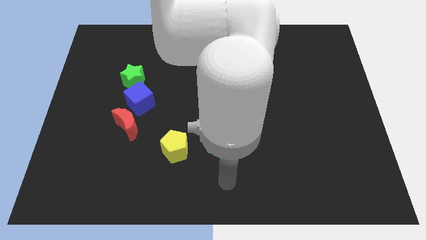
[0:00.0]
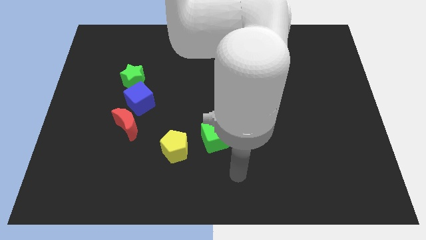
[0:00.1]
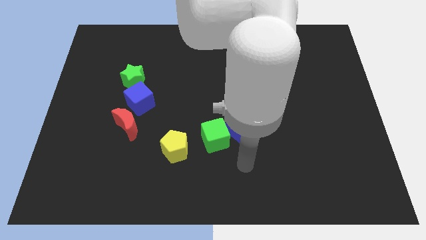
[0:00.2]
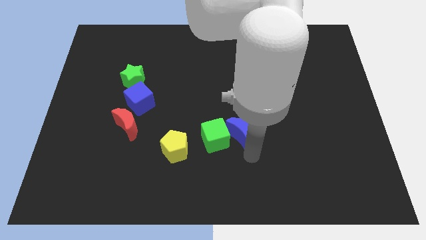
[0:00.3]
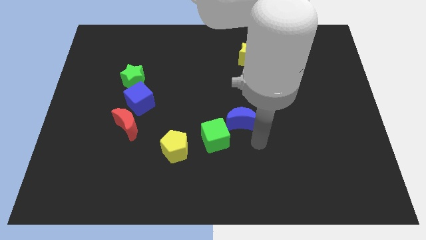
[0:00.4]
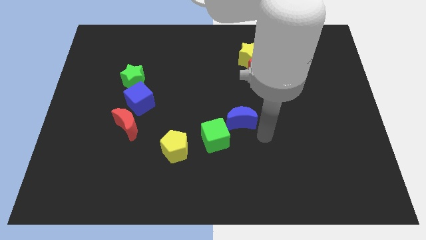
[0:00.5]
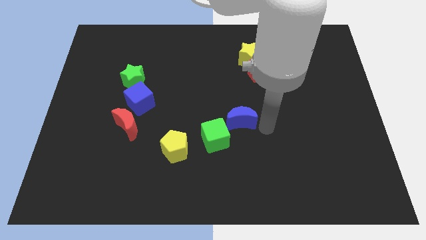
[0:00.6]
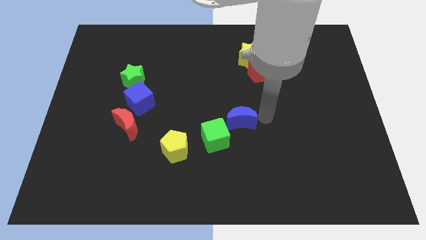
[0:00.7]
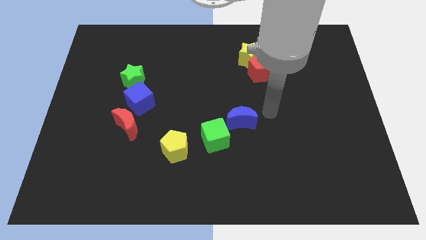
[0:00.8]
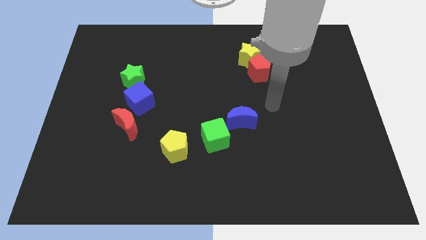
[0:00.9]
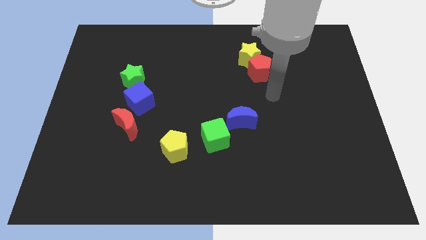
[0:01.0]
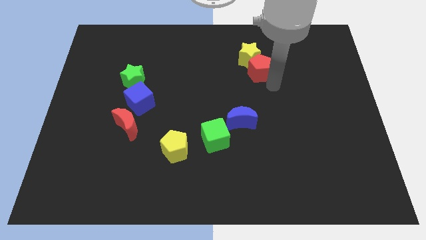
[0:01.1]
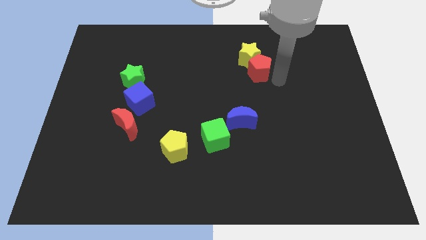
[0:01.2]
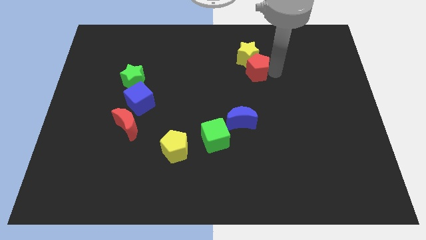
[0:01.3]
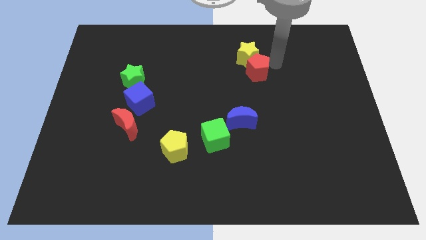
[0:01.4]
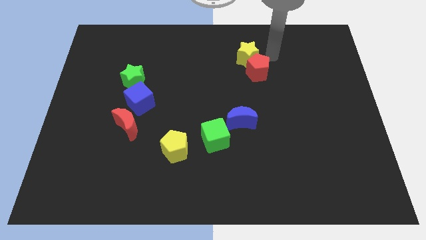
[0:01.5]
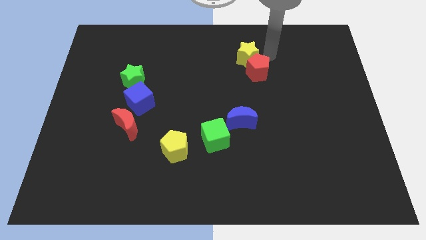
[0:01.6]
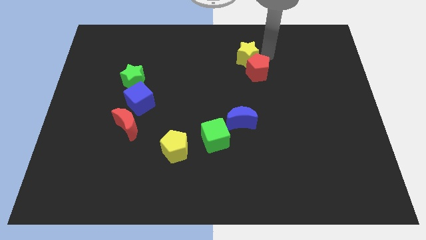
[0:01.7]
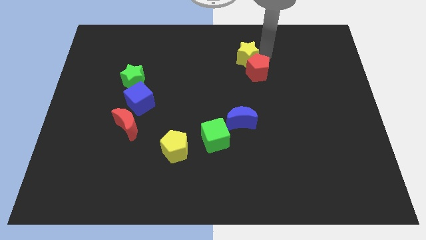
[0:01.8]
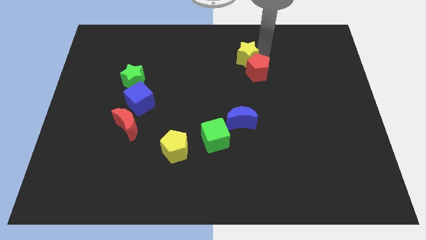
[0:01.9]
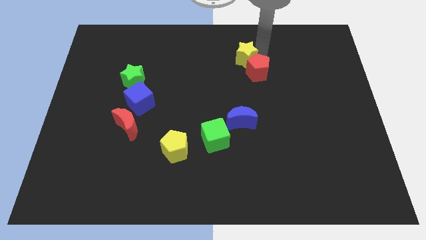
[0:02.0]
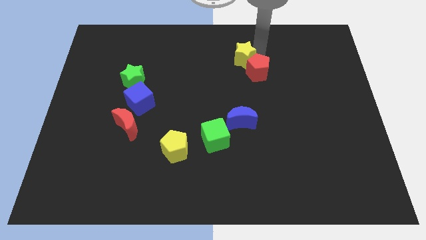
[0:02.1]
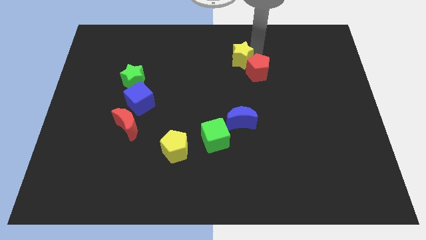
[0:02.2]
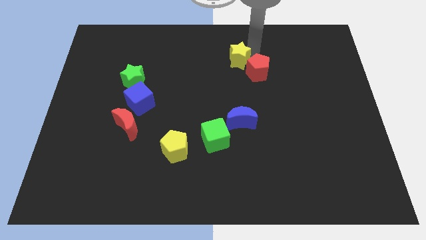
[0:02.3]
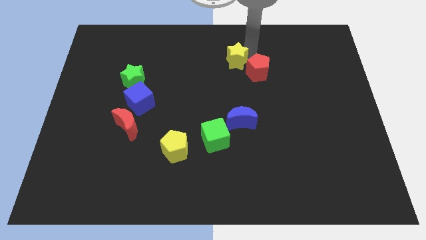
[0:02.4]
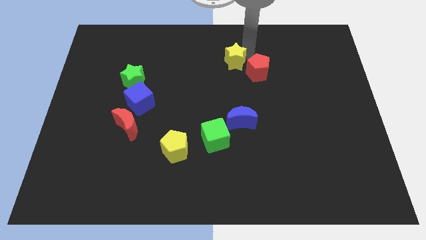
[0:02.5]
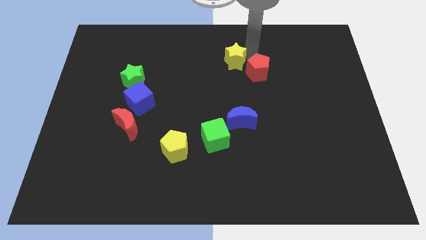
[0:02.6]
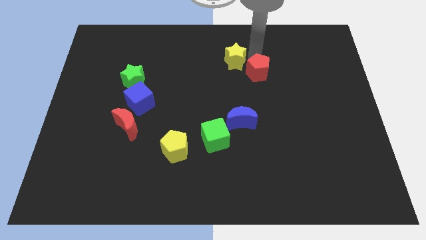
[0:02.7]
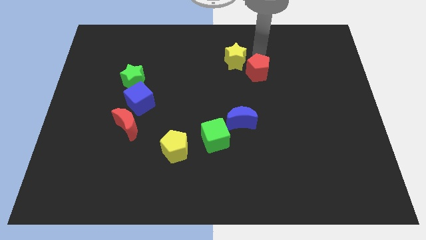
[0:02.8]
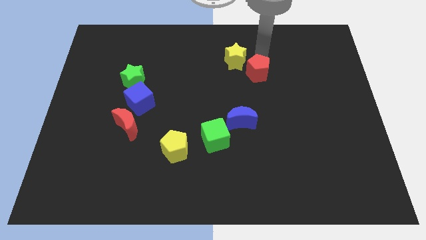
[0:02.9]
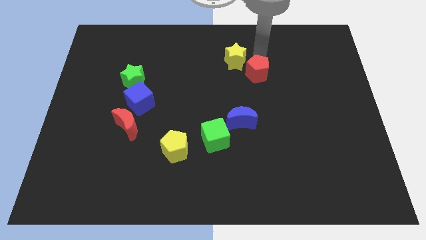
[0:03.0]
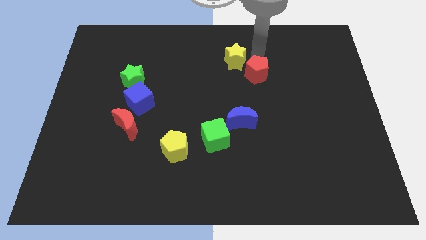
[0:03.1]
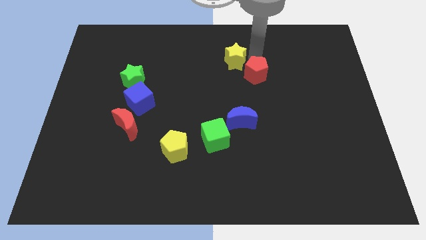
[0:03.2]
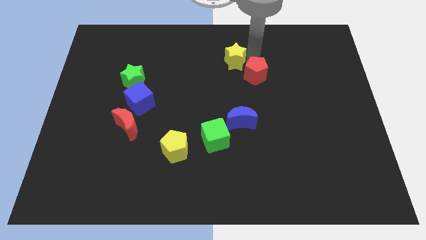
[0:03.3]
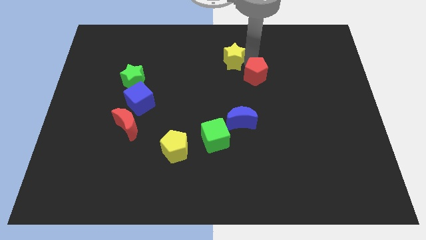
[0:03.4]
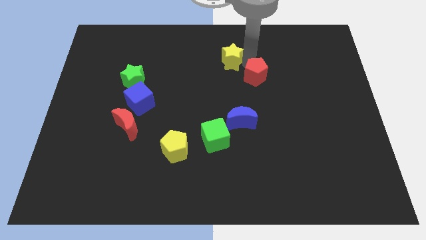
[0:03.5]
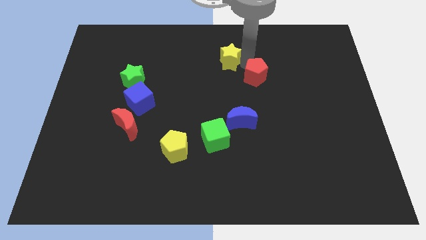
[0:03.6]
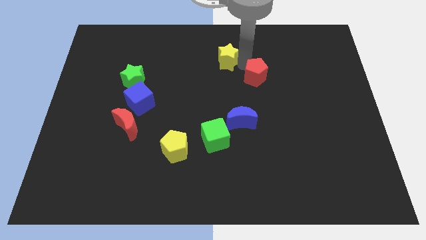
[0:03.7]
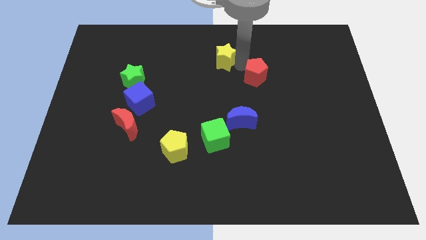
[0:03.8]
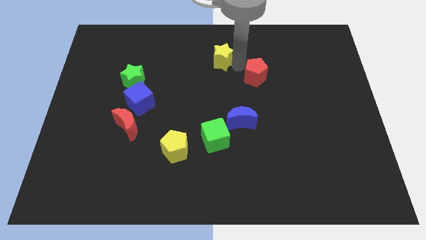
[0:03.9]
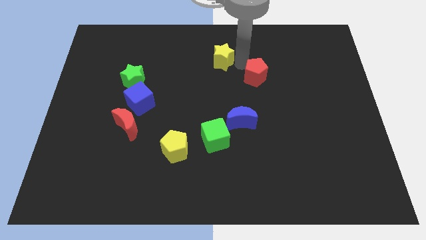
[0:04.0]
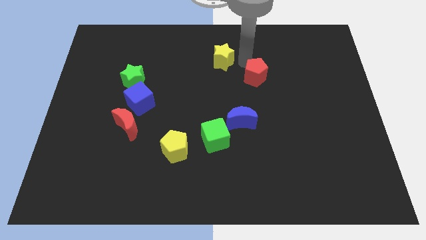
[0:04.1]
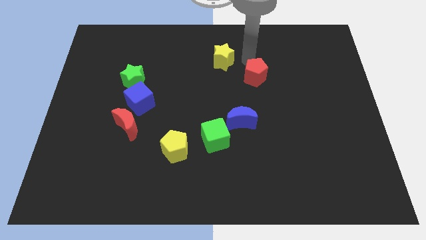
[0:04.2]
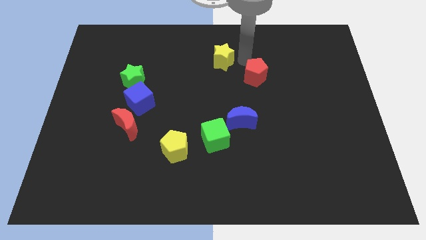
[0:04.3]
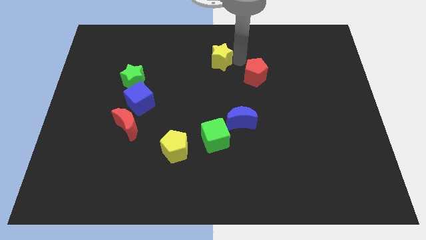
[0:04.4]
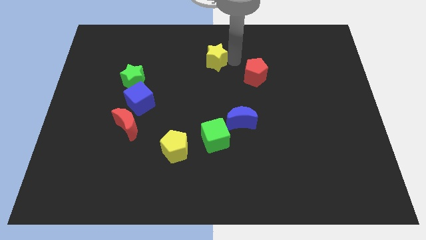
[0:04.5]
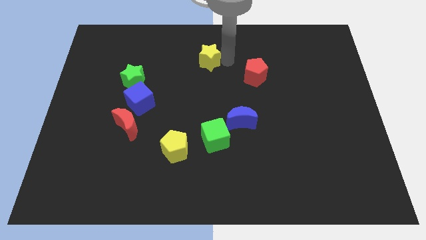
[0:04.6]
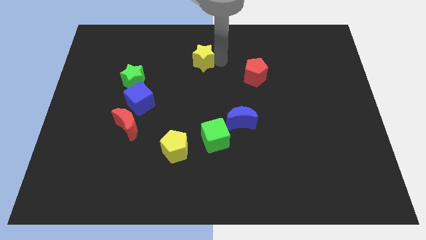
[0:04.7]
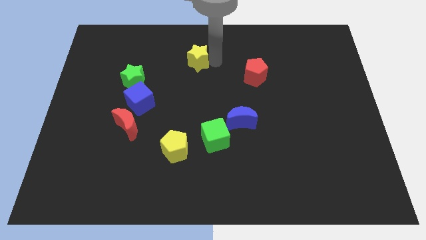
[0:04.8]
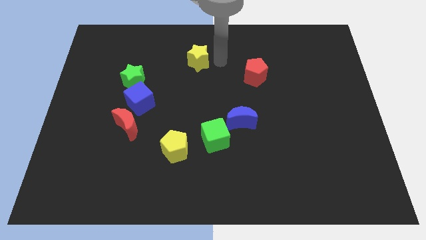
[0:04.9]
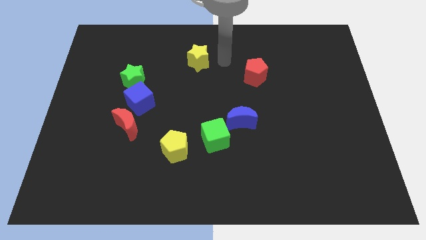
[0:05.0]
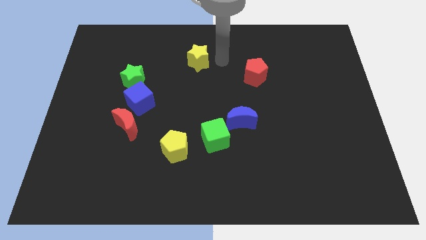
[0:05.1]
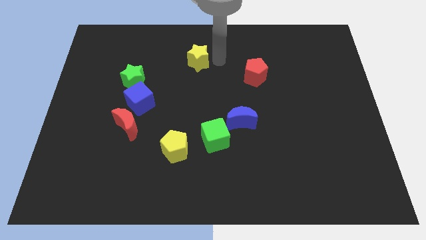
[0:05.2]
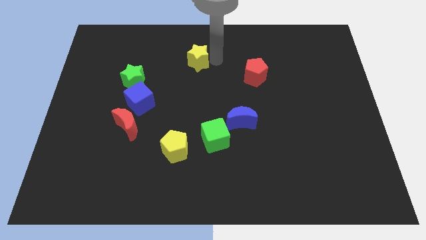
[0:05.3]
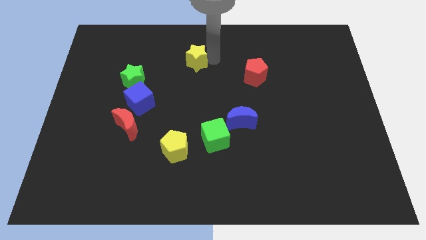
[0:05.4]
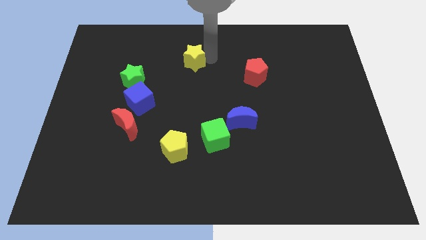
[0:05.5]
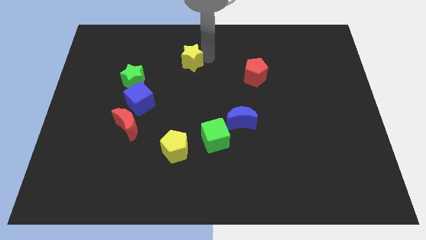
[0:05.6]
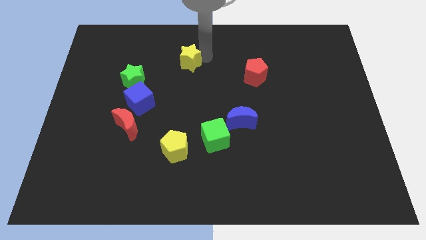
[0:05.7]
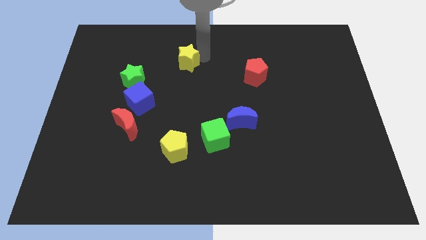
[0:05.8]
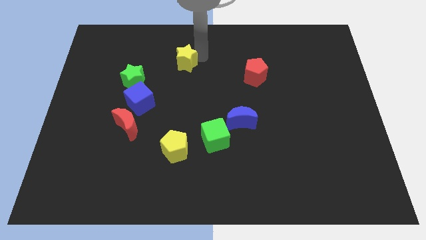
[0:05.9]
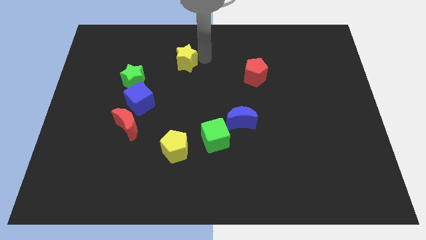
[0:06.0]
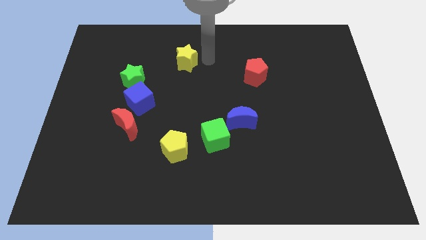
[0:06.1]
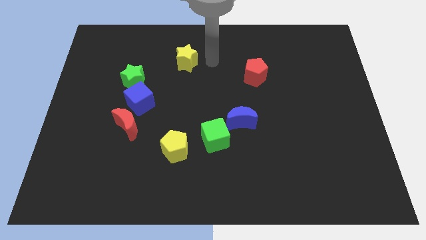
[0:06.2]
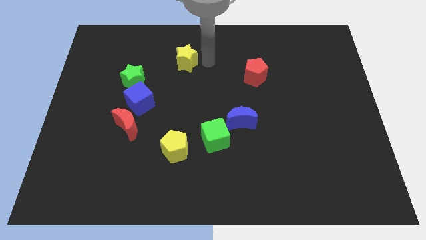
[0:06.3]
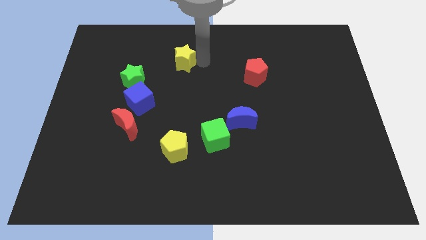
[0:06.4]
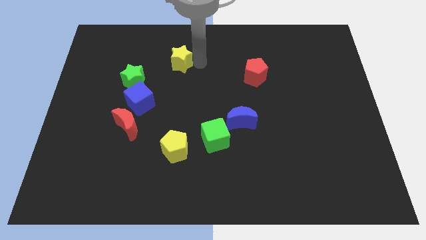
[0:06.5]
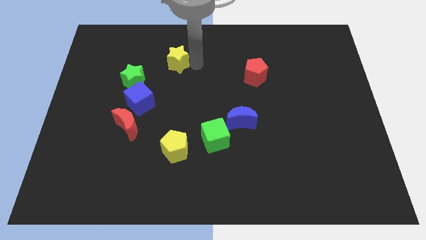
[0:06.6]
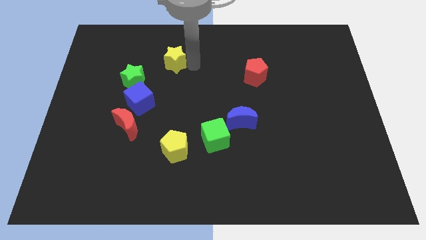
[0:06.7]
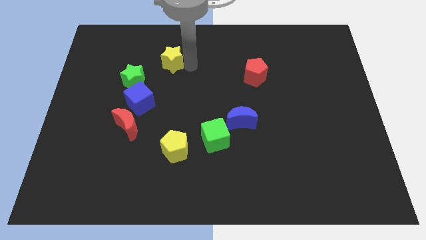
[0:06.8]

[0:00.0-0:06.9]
push the yellow star left

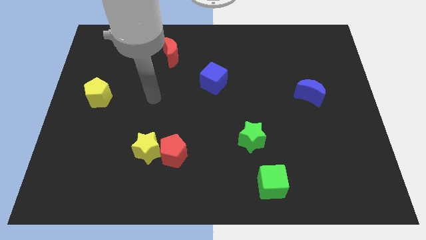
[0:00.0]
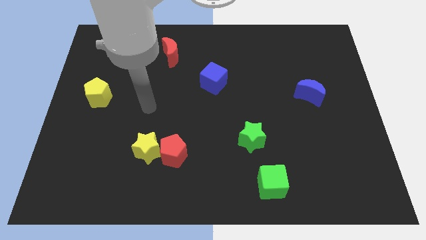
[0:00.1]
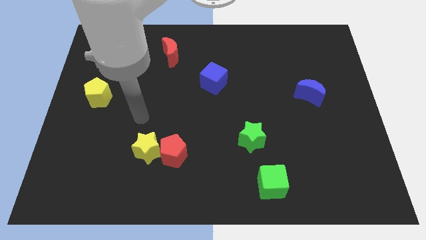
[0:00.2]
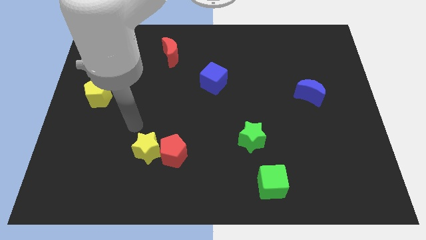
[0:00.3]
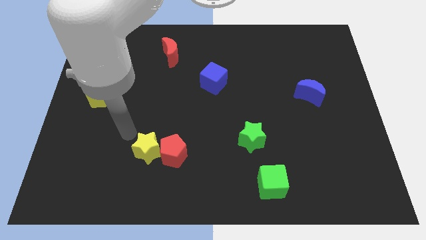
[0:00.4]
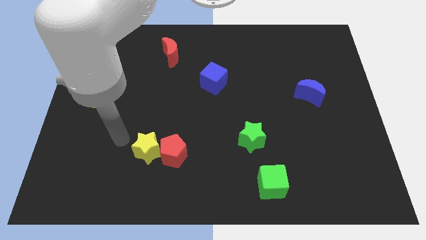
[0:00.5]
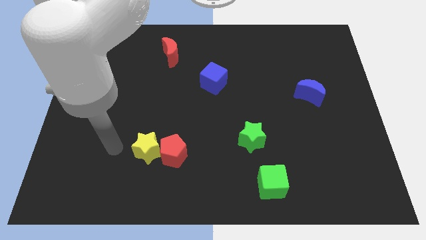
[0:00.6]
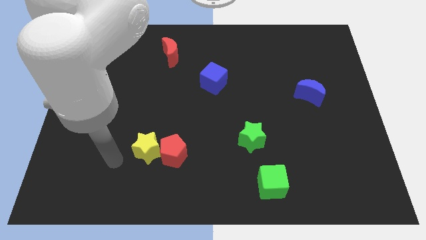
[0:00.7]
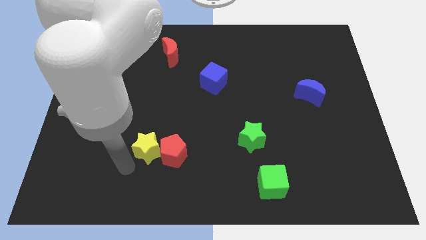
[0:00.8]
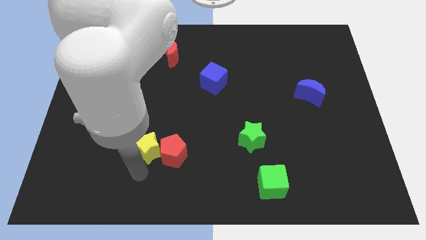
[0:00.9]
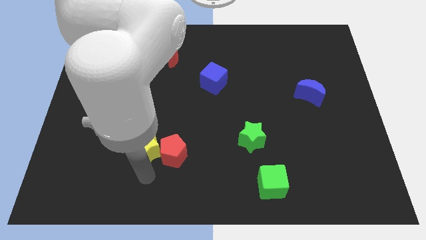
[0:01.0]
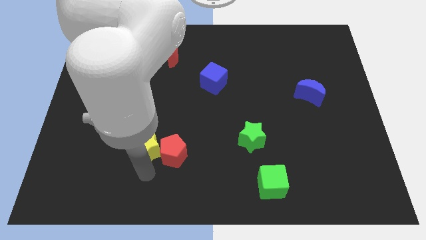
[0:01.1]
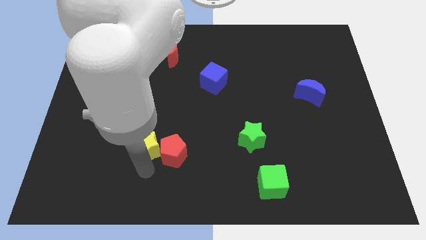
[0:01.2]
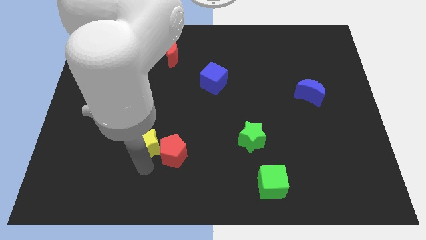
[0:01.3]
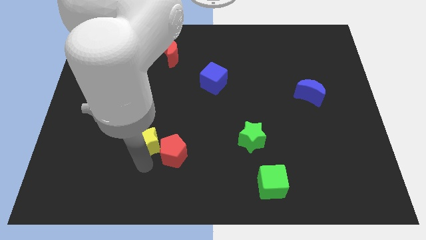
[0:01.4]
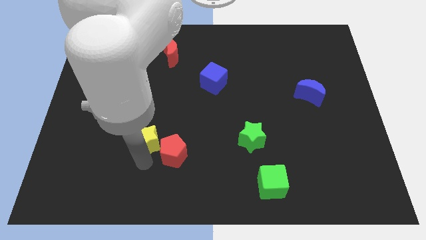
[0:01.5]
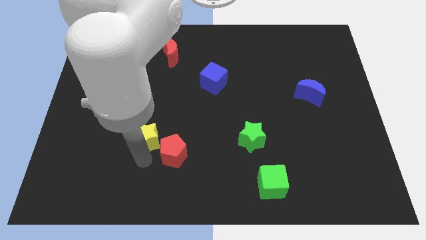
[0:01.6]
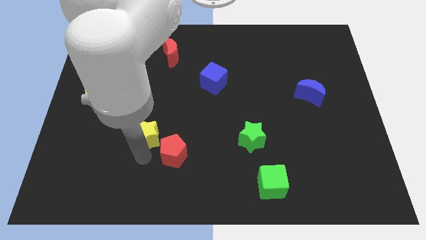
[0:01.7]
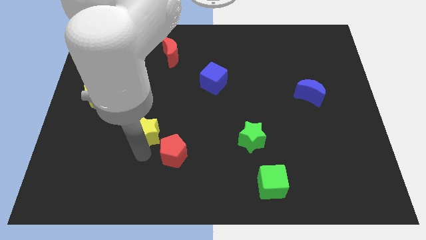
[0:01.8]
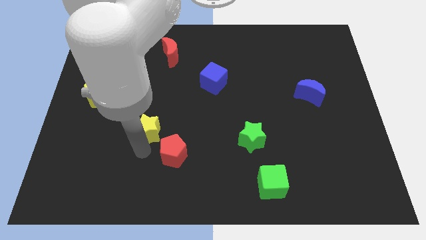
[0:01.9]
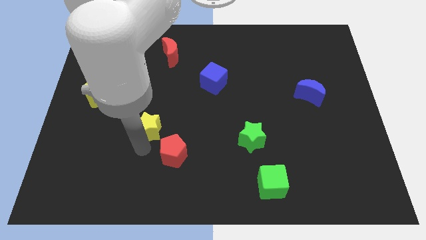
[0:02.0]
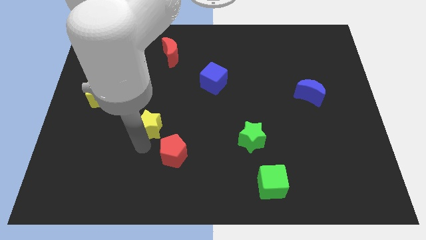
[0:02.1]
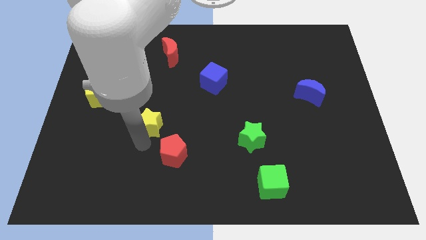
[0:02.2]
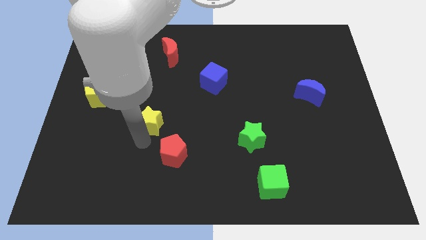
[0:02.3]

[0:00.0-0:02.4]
move the yellow star a little up
